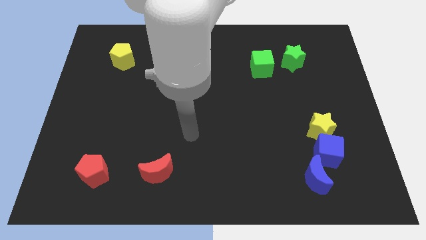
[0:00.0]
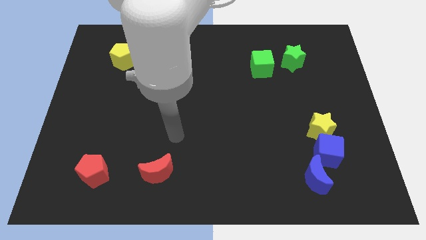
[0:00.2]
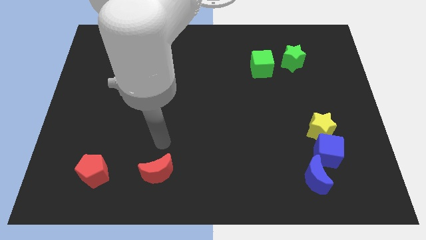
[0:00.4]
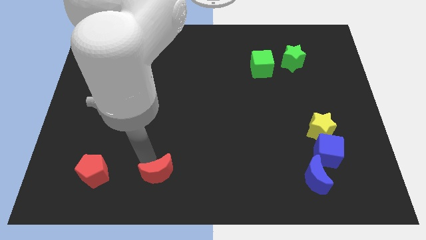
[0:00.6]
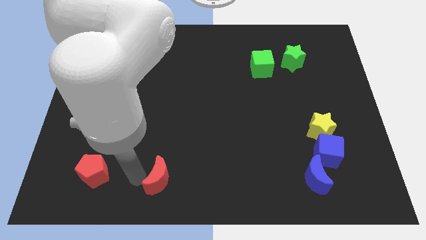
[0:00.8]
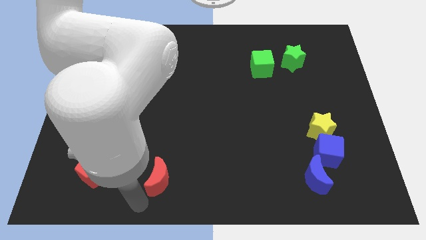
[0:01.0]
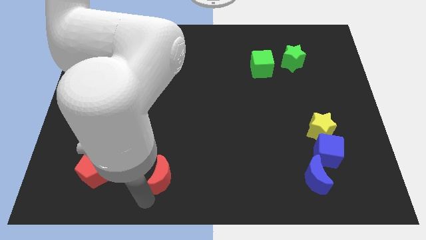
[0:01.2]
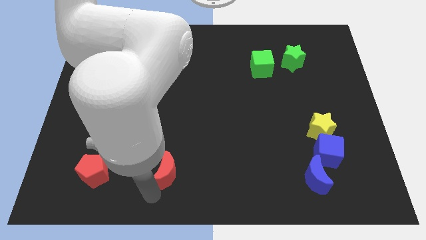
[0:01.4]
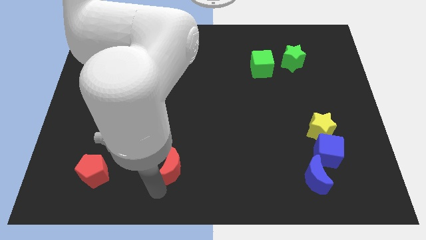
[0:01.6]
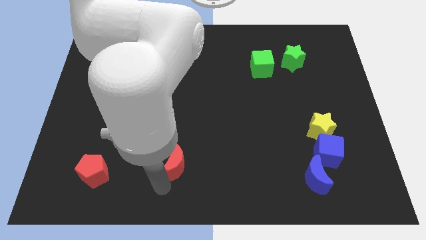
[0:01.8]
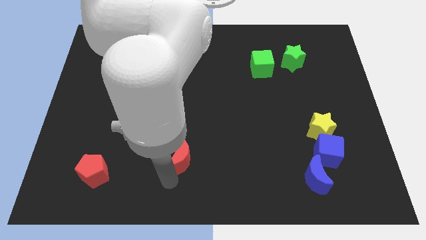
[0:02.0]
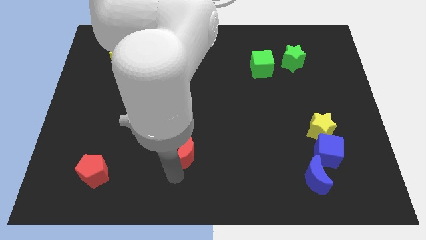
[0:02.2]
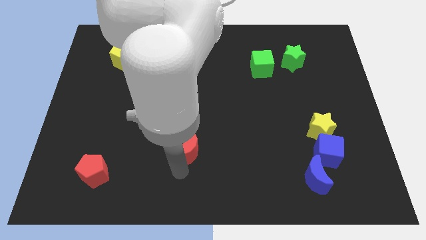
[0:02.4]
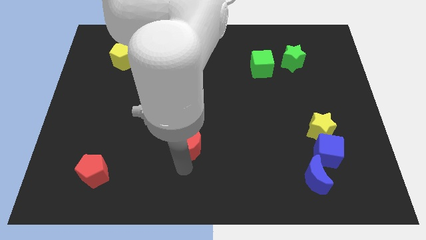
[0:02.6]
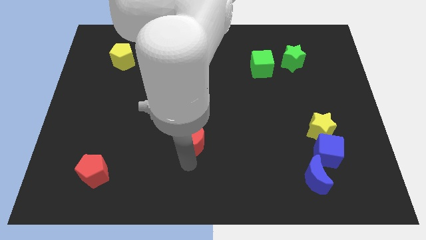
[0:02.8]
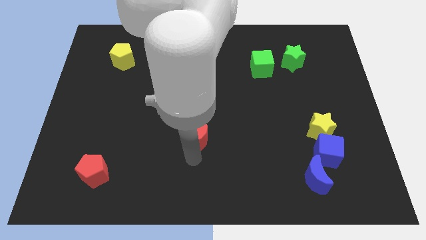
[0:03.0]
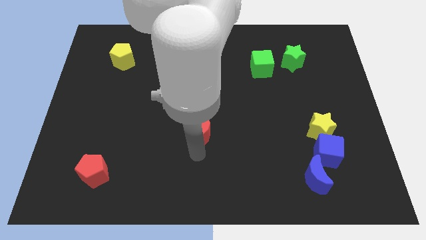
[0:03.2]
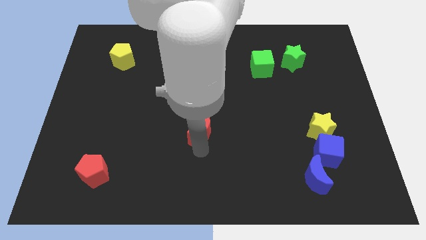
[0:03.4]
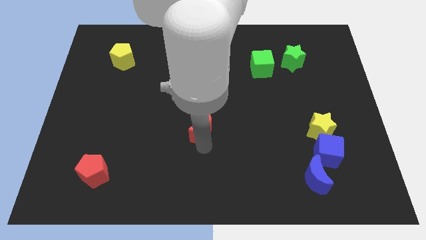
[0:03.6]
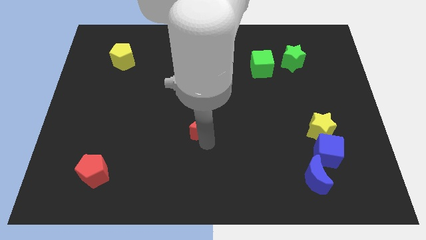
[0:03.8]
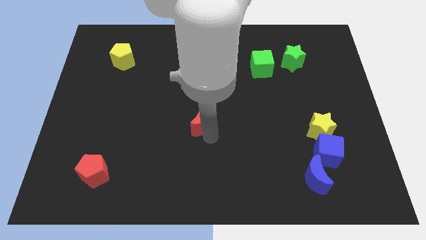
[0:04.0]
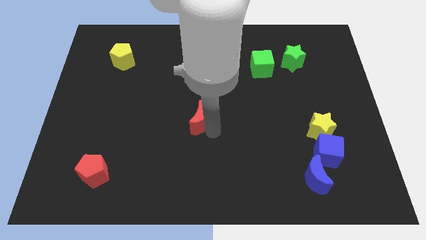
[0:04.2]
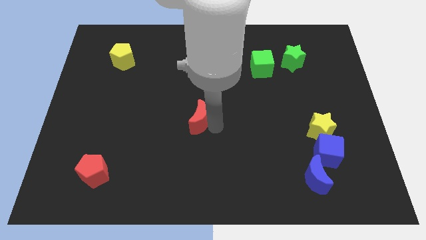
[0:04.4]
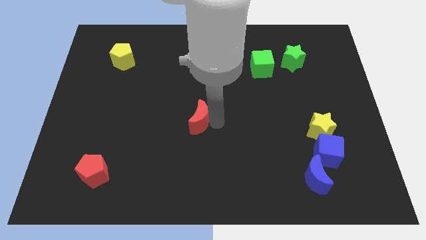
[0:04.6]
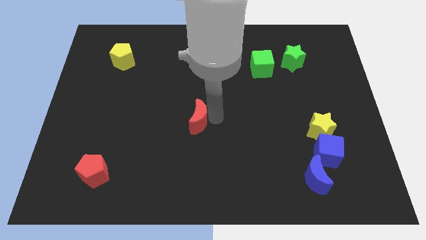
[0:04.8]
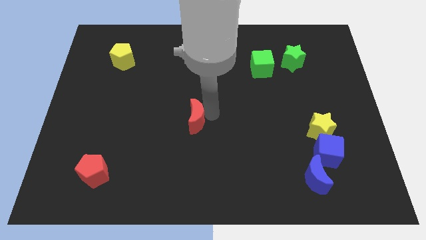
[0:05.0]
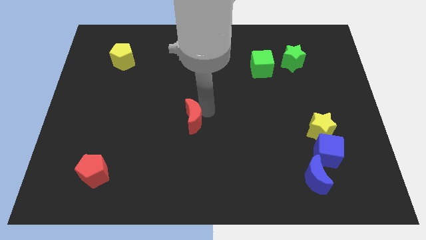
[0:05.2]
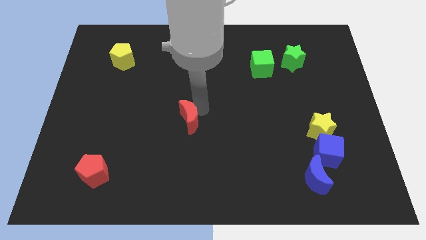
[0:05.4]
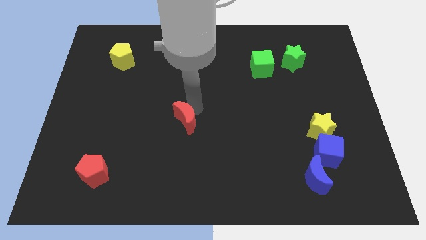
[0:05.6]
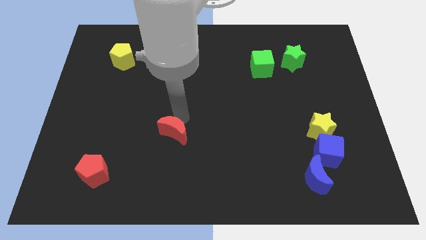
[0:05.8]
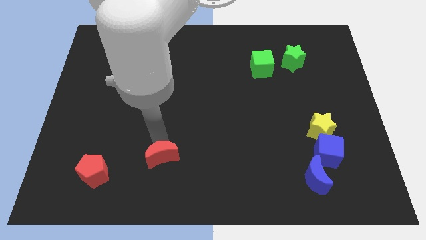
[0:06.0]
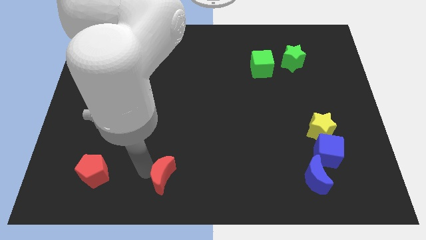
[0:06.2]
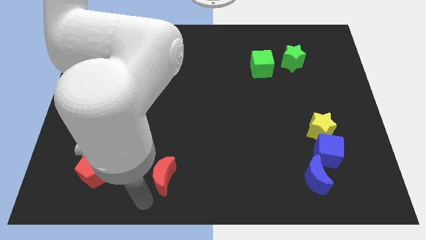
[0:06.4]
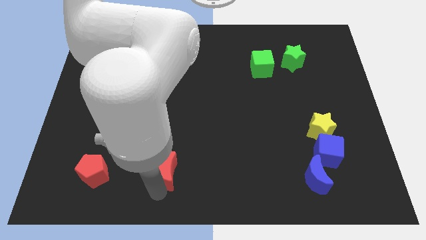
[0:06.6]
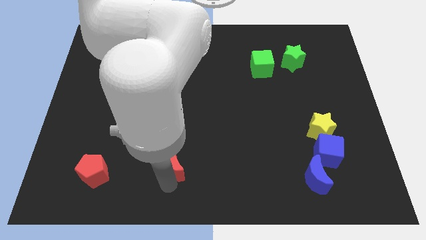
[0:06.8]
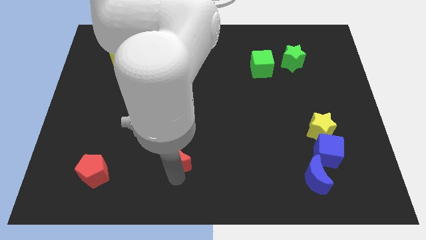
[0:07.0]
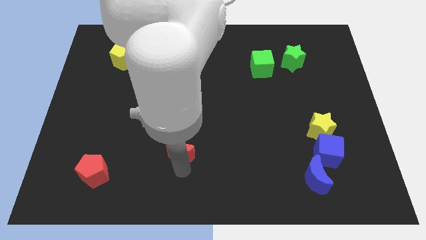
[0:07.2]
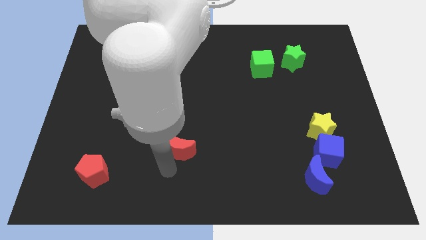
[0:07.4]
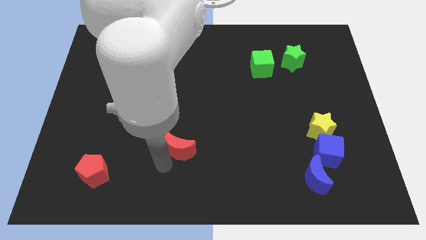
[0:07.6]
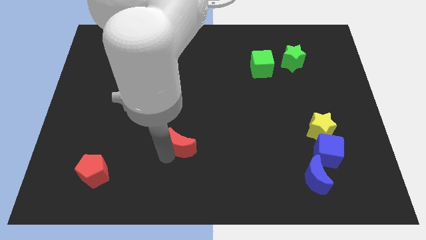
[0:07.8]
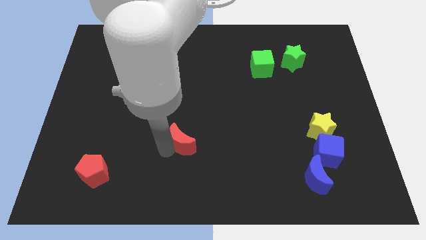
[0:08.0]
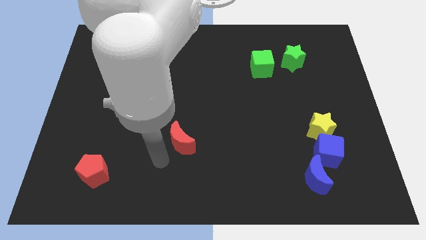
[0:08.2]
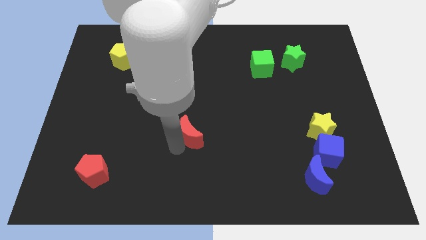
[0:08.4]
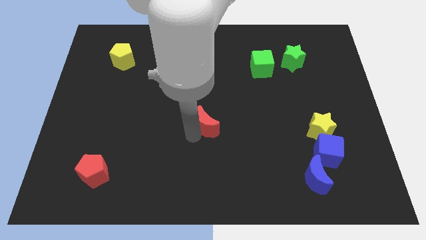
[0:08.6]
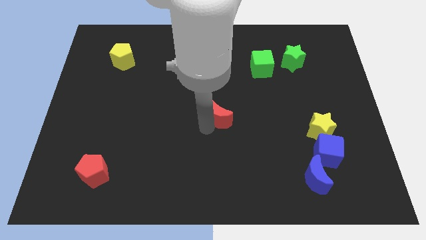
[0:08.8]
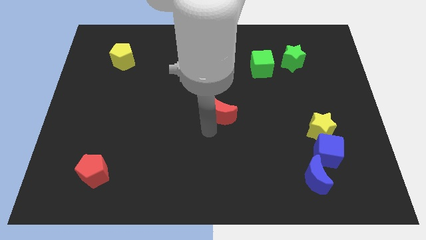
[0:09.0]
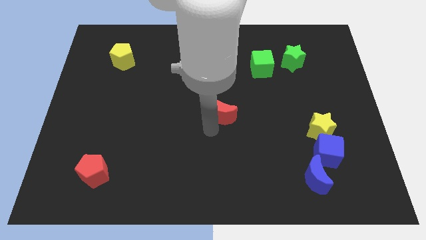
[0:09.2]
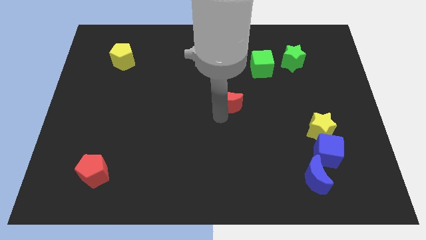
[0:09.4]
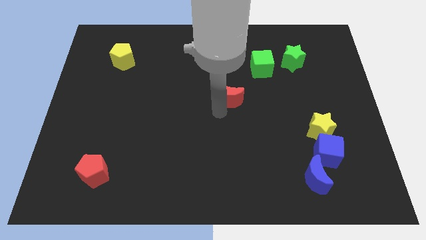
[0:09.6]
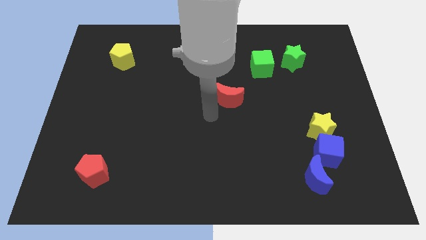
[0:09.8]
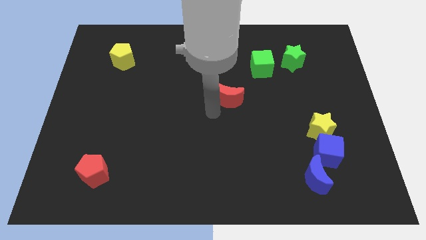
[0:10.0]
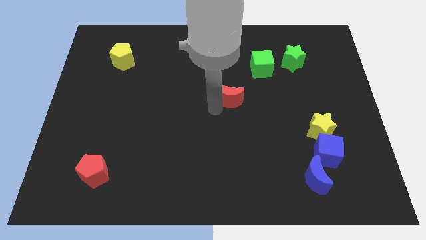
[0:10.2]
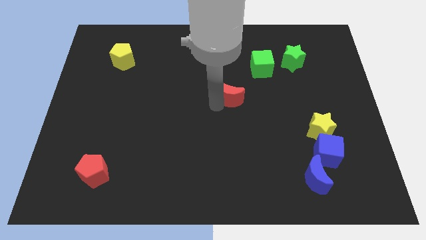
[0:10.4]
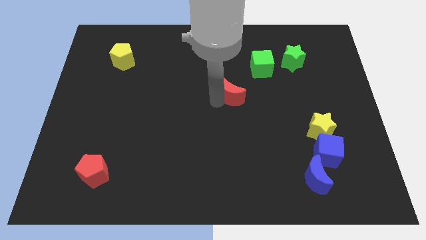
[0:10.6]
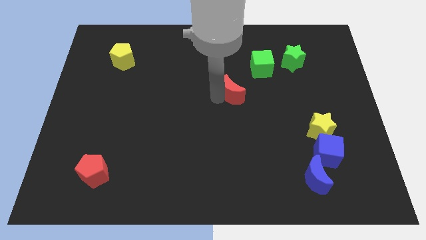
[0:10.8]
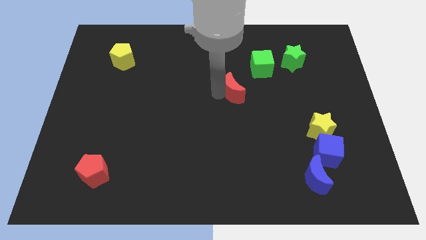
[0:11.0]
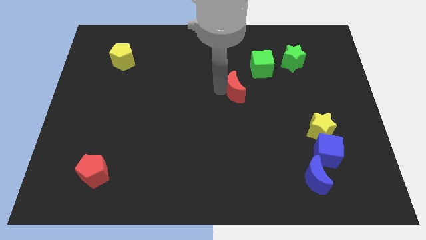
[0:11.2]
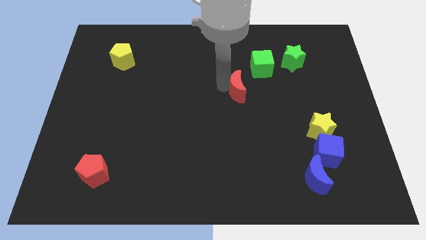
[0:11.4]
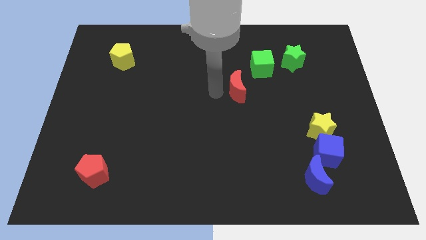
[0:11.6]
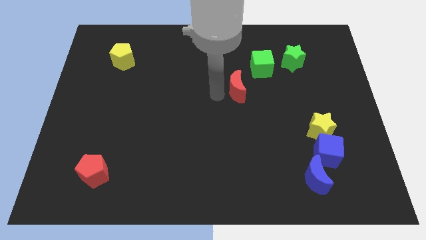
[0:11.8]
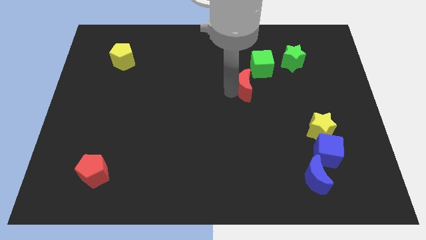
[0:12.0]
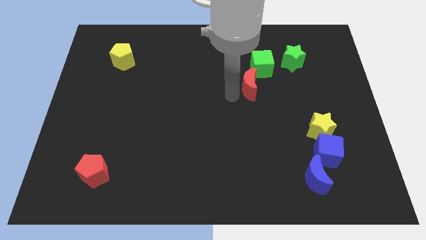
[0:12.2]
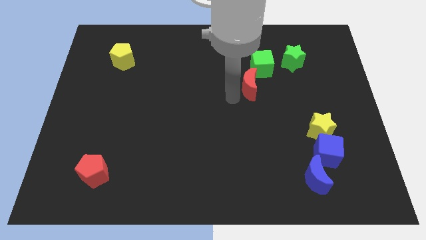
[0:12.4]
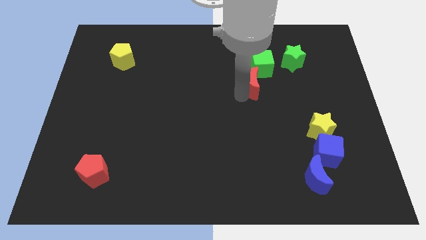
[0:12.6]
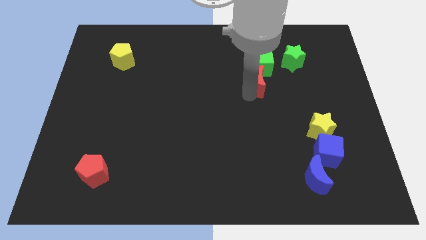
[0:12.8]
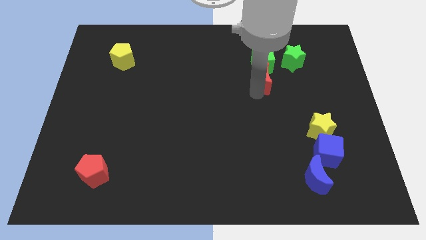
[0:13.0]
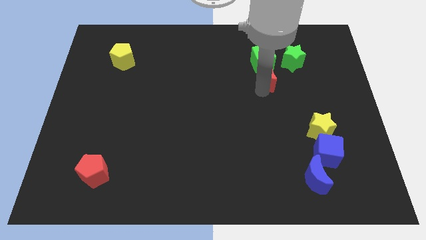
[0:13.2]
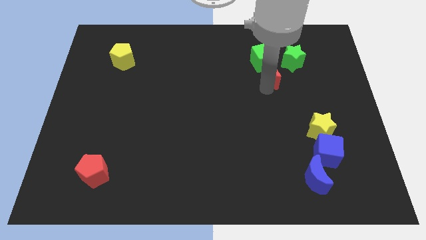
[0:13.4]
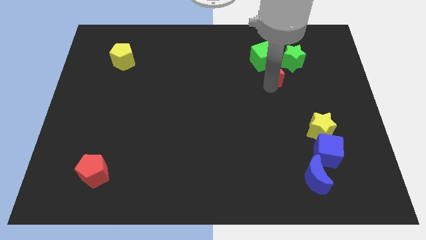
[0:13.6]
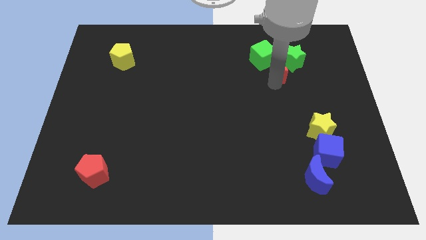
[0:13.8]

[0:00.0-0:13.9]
move the red moon next to the green star
